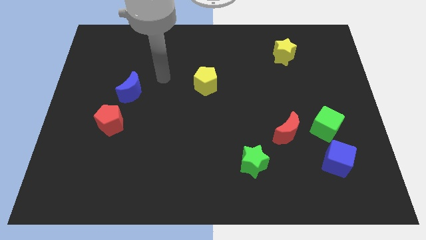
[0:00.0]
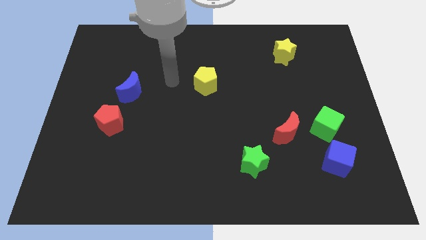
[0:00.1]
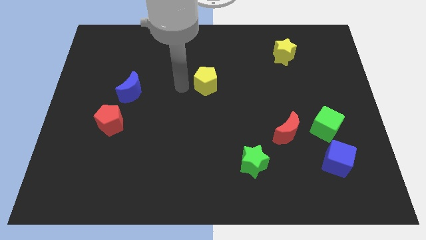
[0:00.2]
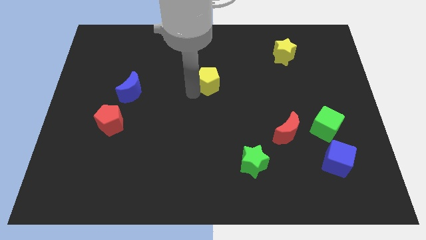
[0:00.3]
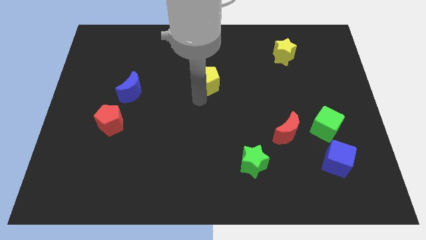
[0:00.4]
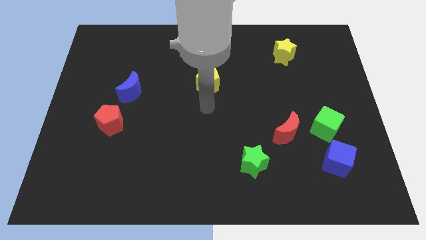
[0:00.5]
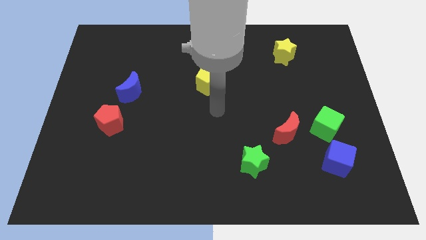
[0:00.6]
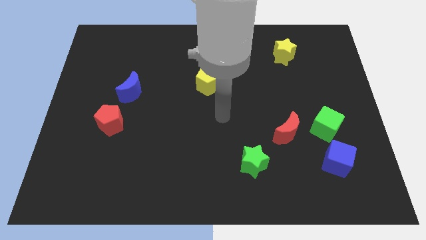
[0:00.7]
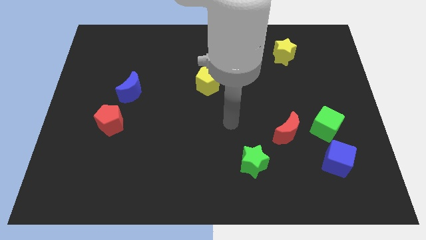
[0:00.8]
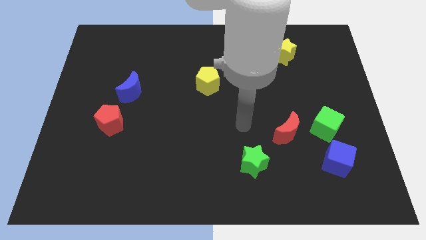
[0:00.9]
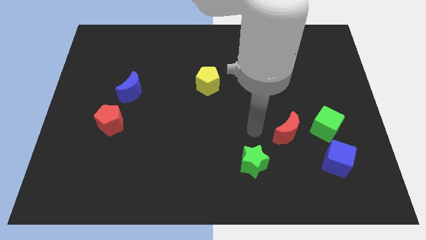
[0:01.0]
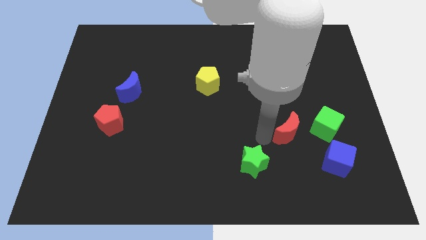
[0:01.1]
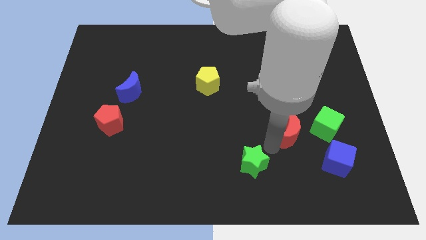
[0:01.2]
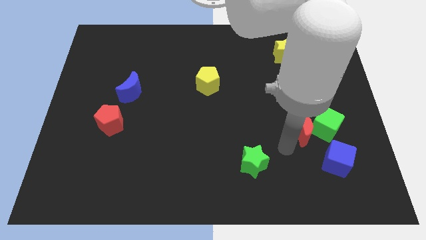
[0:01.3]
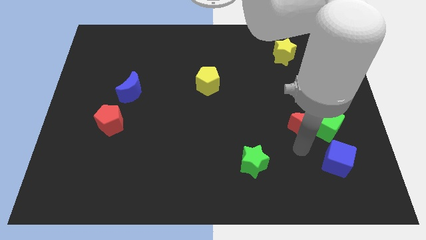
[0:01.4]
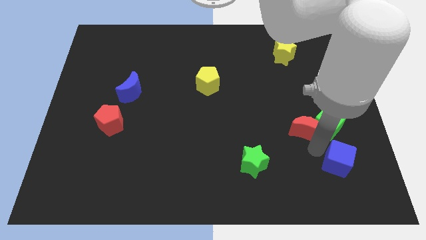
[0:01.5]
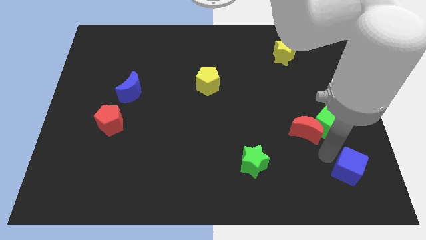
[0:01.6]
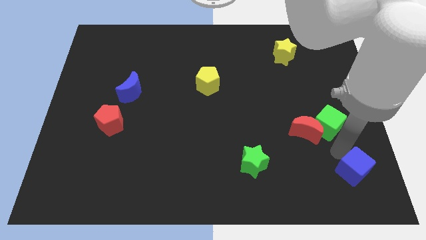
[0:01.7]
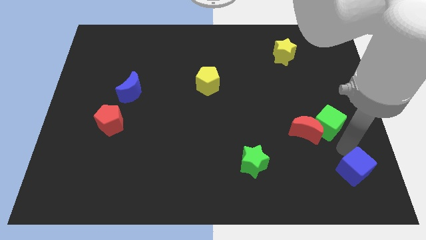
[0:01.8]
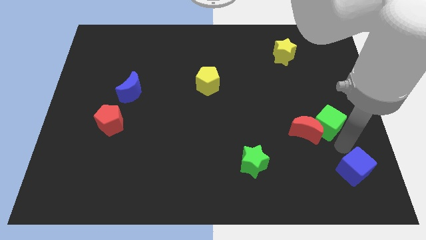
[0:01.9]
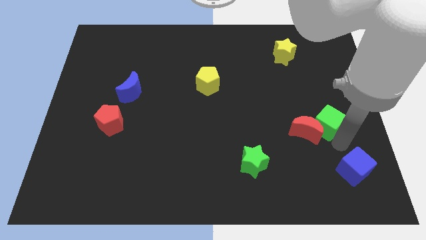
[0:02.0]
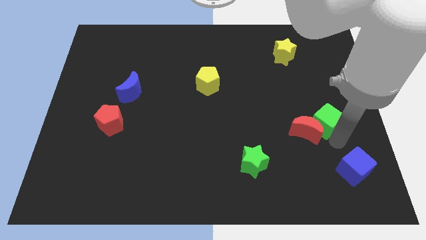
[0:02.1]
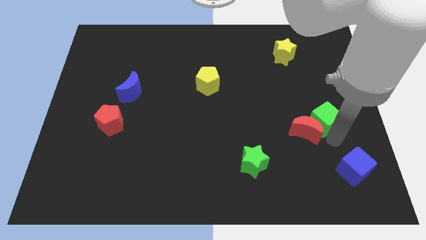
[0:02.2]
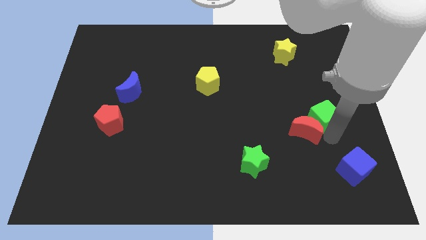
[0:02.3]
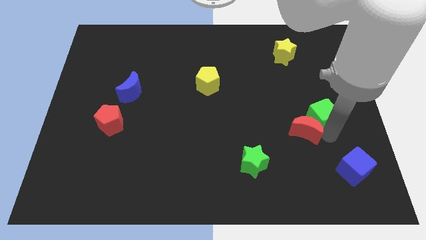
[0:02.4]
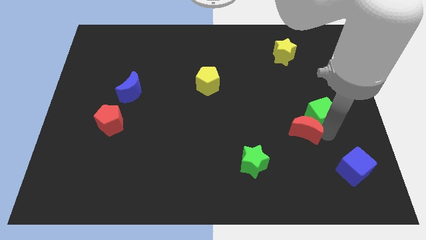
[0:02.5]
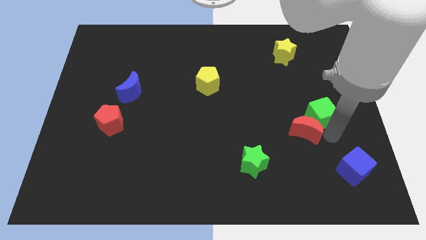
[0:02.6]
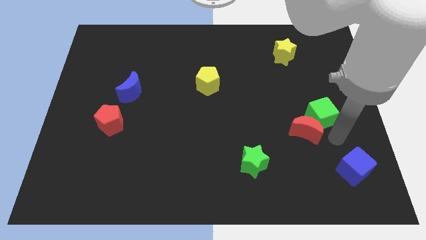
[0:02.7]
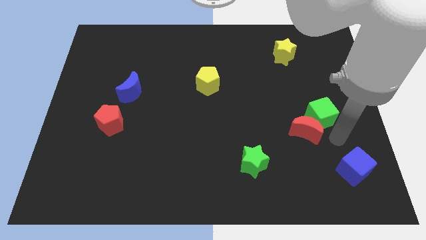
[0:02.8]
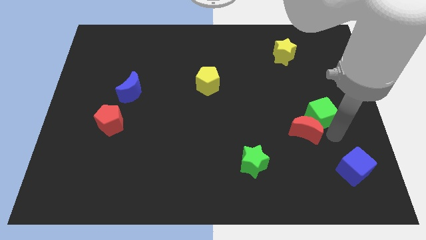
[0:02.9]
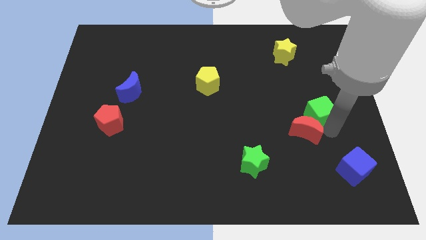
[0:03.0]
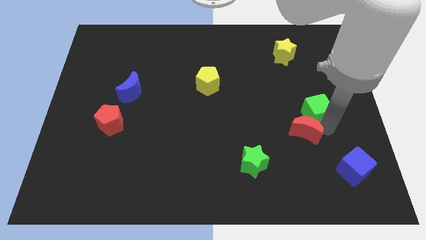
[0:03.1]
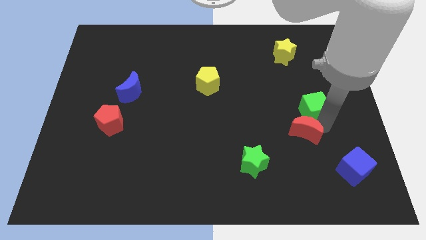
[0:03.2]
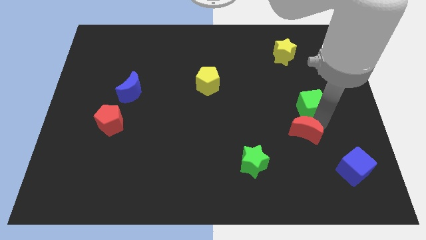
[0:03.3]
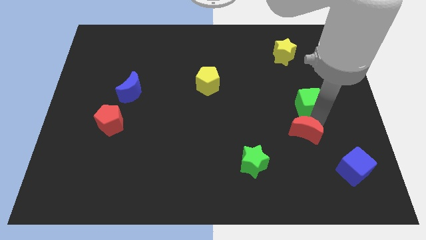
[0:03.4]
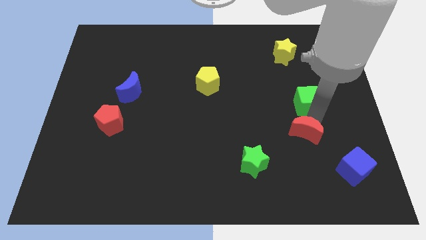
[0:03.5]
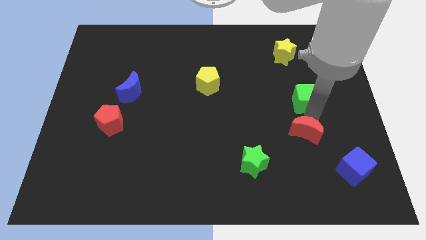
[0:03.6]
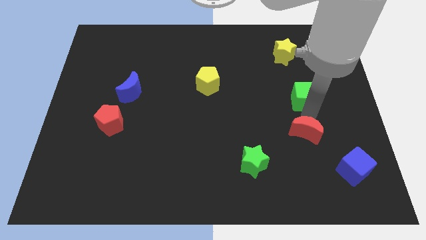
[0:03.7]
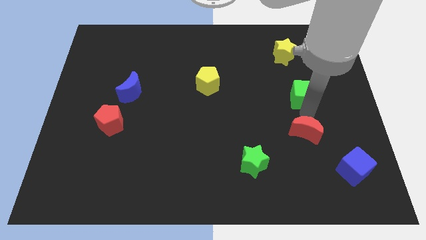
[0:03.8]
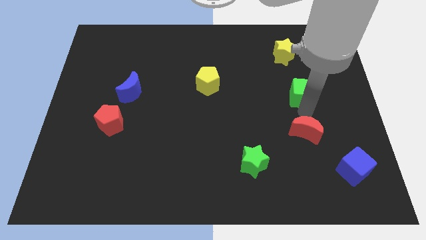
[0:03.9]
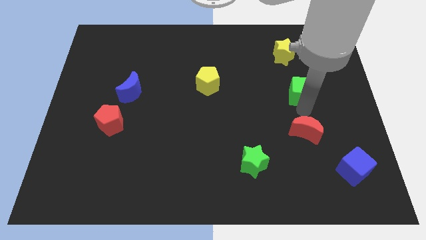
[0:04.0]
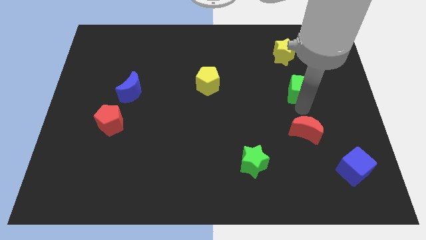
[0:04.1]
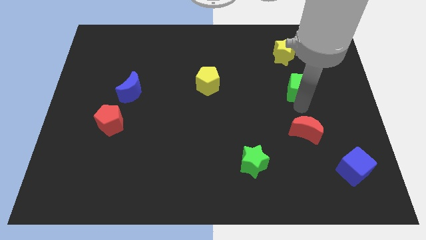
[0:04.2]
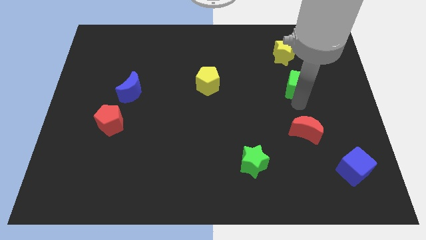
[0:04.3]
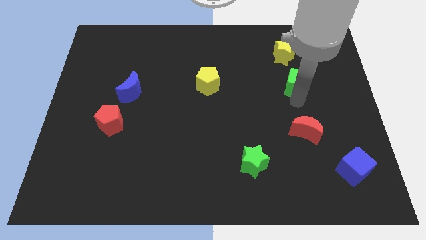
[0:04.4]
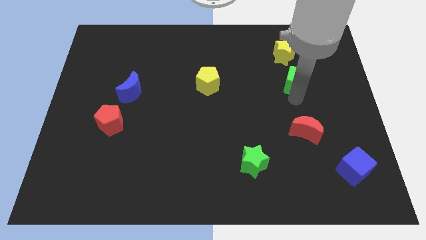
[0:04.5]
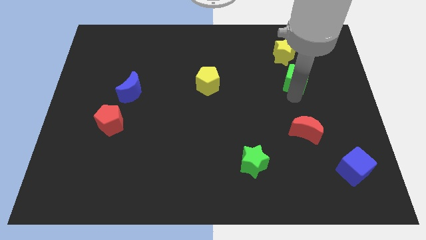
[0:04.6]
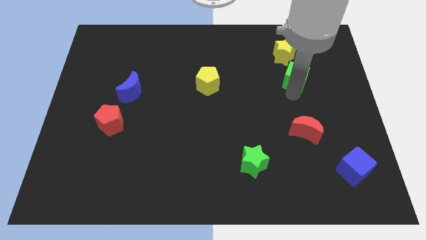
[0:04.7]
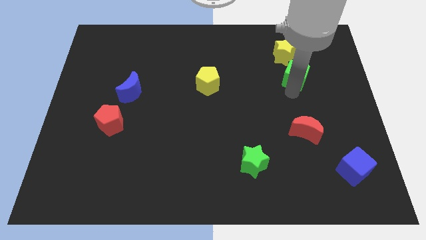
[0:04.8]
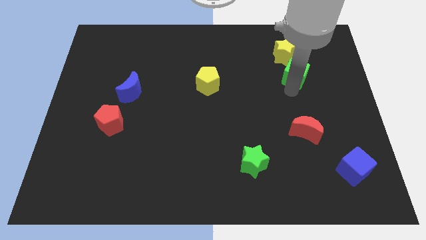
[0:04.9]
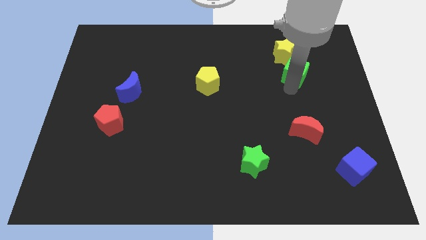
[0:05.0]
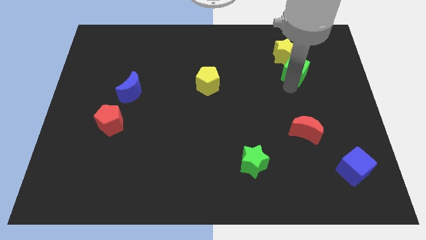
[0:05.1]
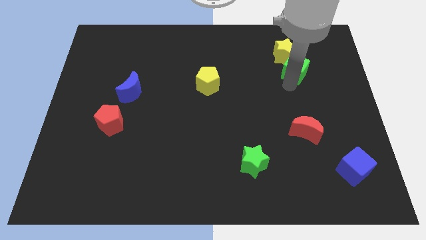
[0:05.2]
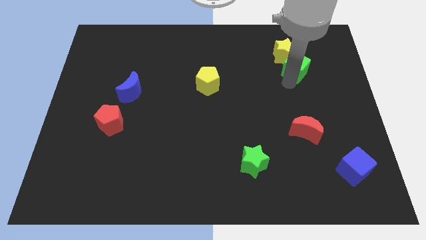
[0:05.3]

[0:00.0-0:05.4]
move the green cube towards the yellow star

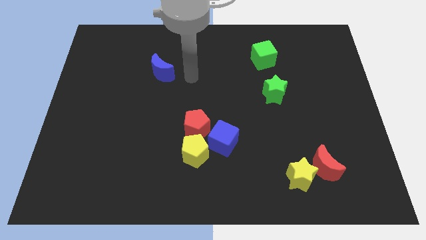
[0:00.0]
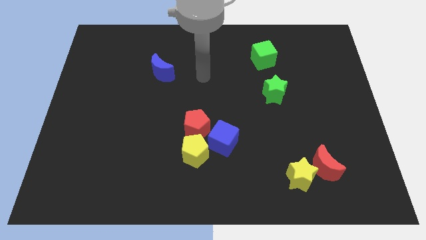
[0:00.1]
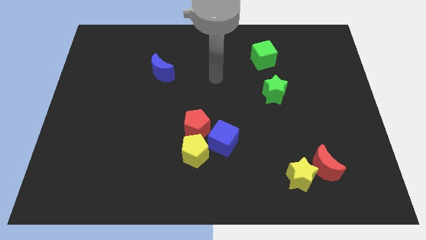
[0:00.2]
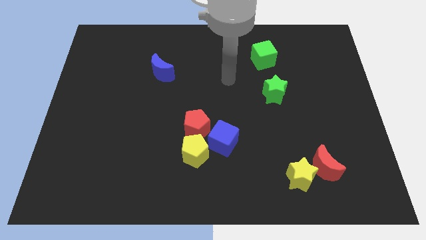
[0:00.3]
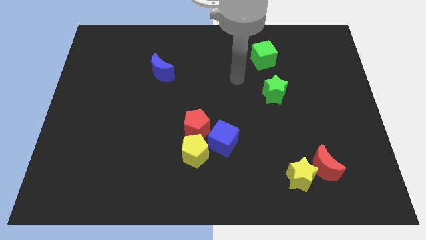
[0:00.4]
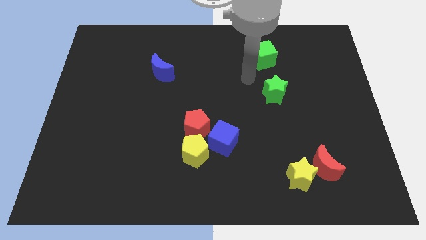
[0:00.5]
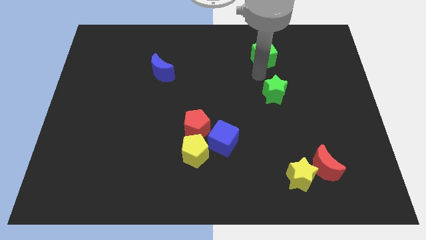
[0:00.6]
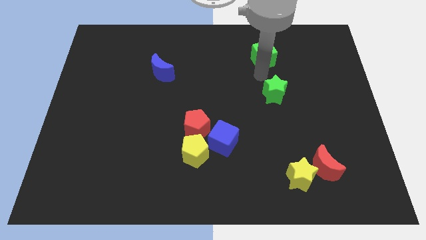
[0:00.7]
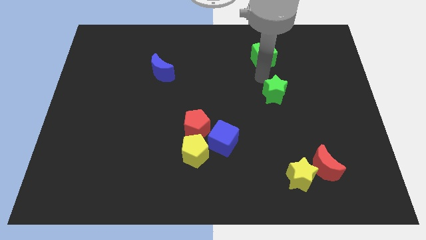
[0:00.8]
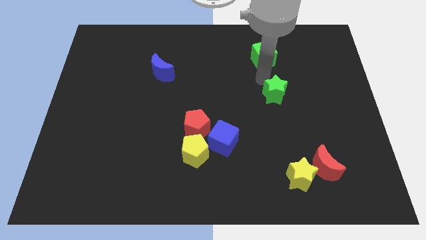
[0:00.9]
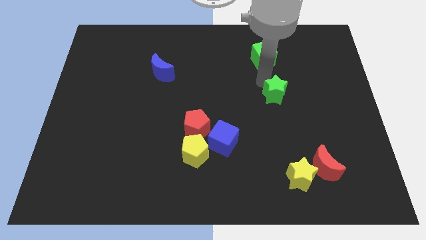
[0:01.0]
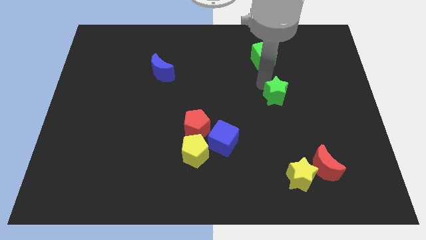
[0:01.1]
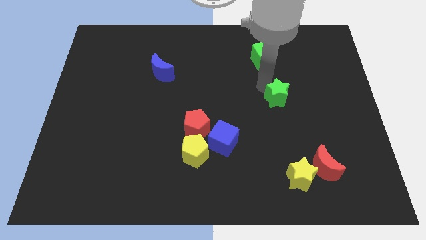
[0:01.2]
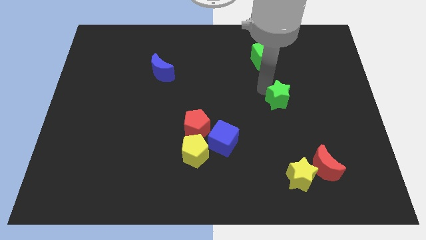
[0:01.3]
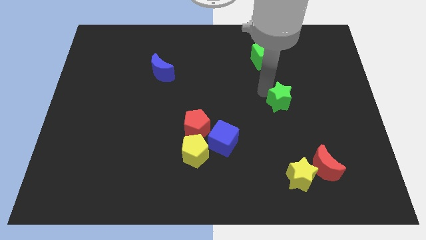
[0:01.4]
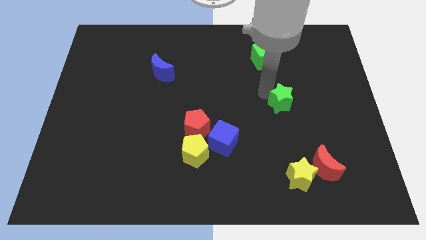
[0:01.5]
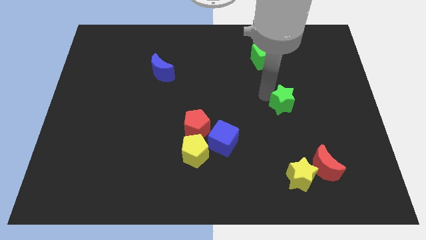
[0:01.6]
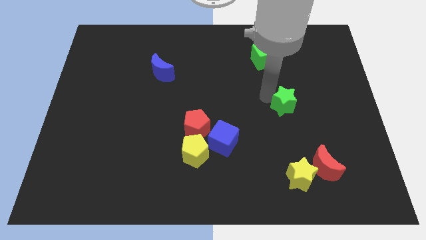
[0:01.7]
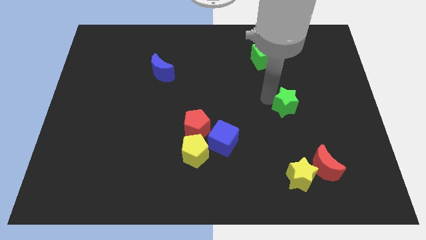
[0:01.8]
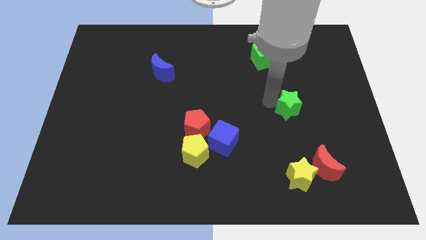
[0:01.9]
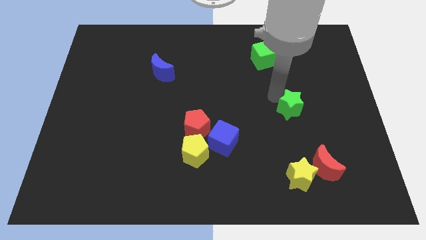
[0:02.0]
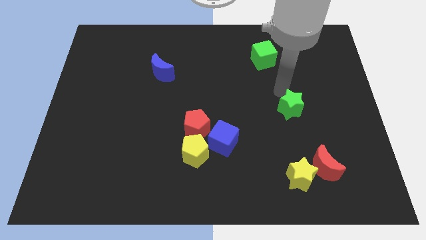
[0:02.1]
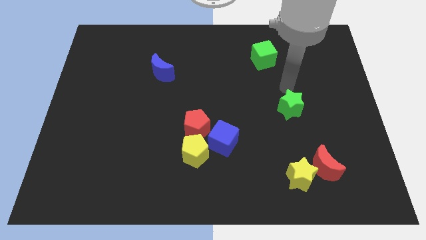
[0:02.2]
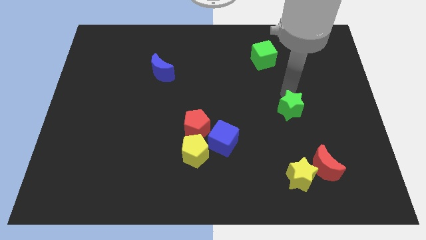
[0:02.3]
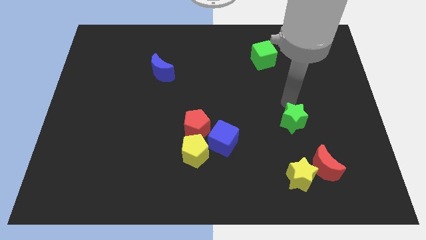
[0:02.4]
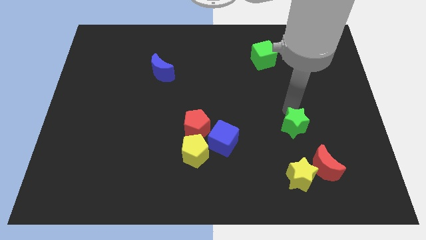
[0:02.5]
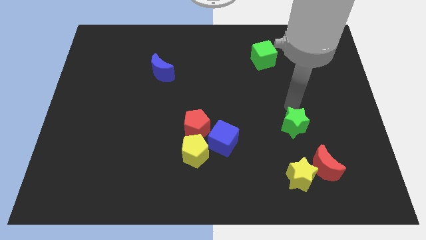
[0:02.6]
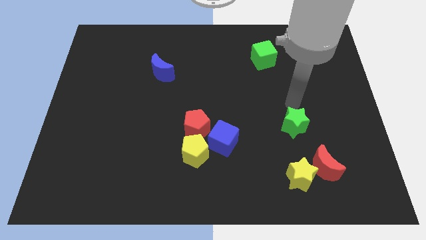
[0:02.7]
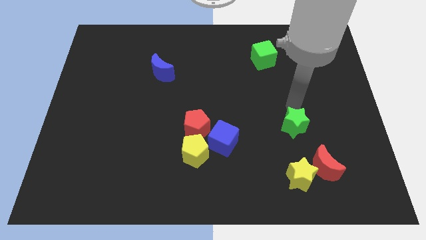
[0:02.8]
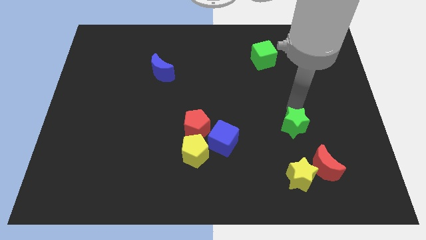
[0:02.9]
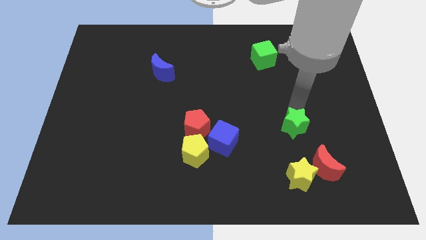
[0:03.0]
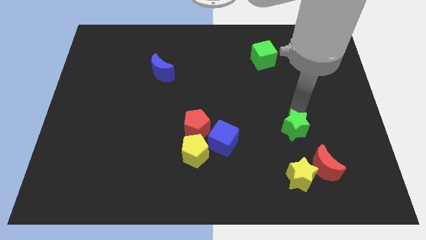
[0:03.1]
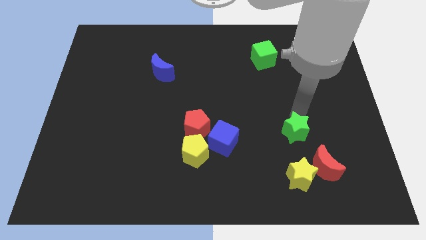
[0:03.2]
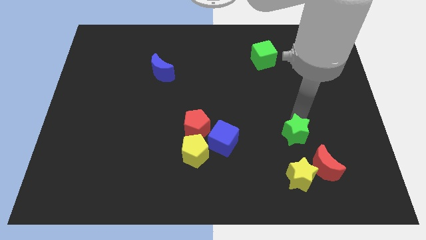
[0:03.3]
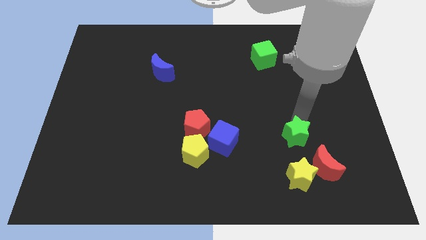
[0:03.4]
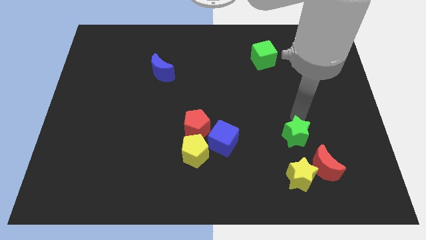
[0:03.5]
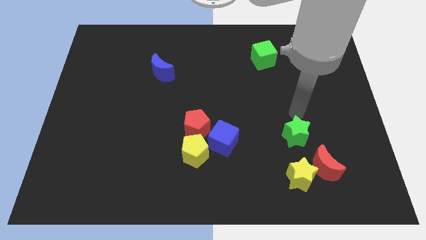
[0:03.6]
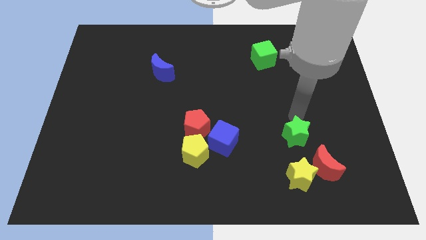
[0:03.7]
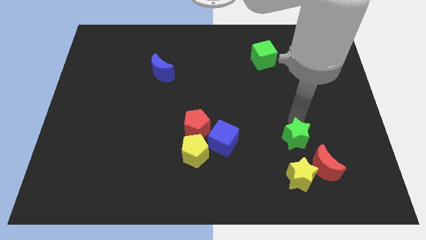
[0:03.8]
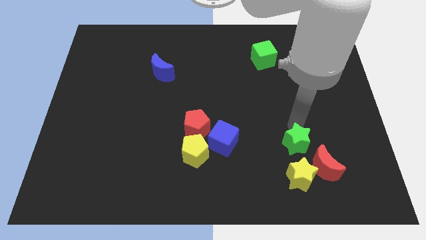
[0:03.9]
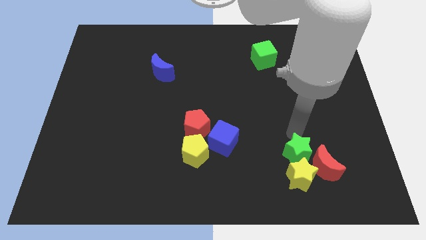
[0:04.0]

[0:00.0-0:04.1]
slide the green star close to the yellow star
